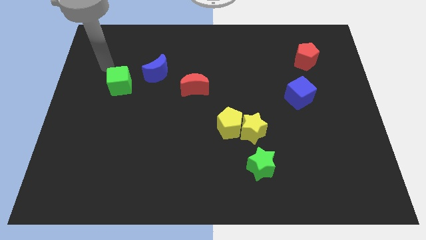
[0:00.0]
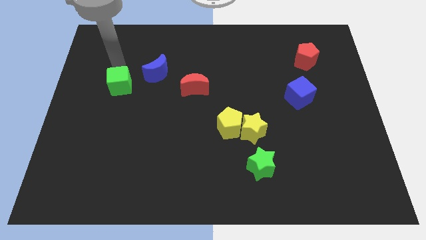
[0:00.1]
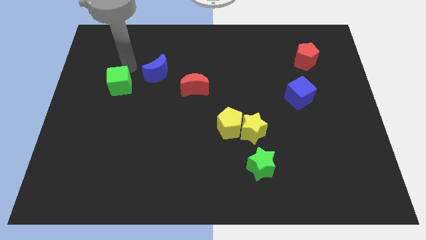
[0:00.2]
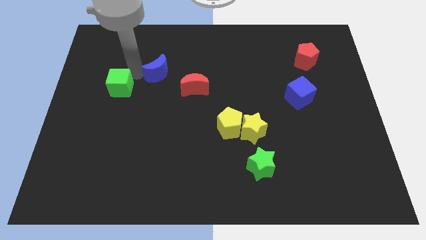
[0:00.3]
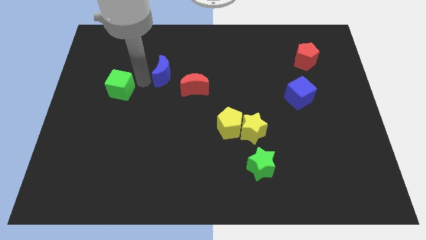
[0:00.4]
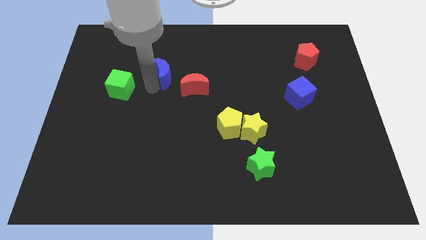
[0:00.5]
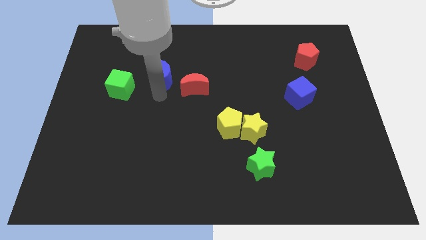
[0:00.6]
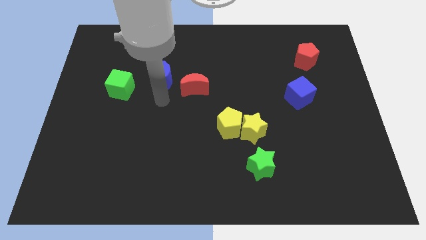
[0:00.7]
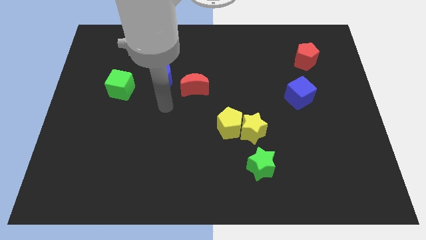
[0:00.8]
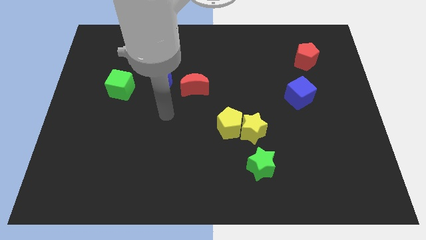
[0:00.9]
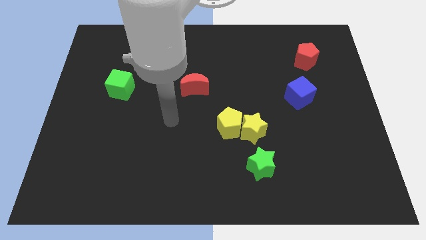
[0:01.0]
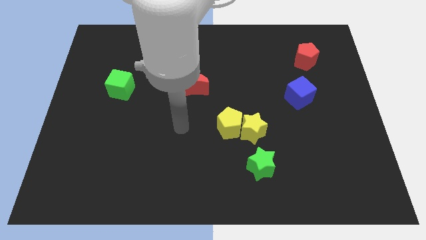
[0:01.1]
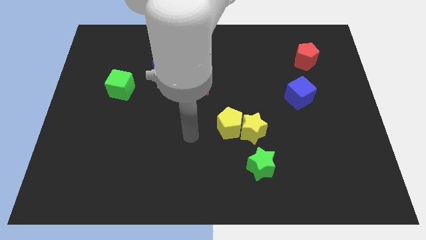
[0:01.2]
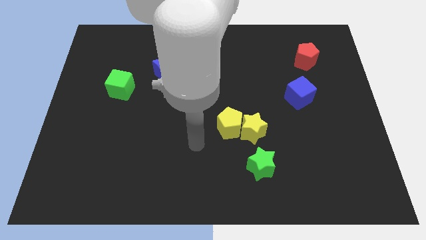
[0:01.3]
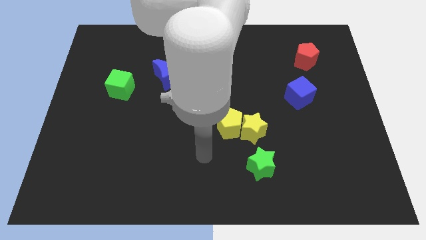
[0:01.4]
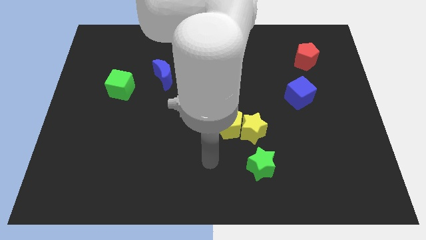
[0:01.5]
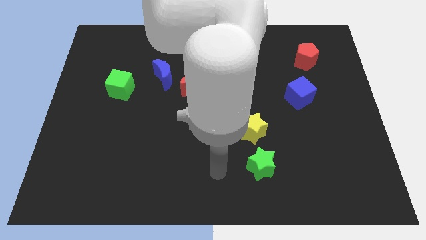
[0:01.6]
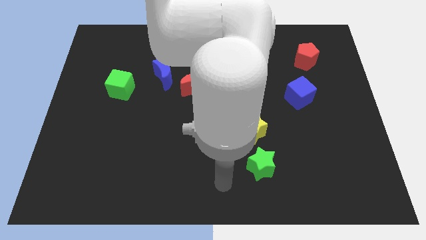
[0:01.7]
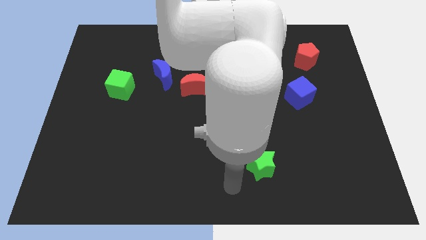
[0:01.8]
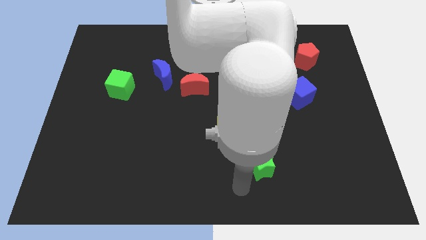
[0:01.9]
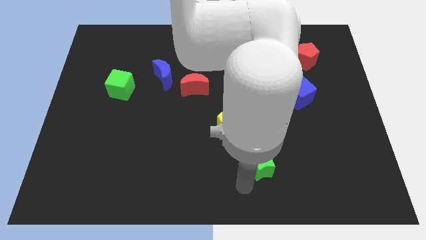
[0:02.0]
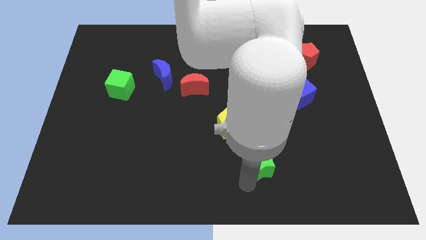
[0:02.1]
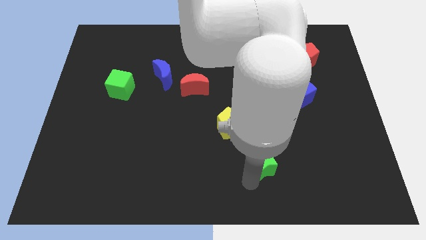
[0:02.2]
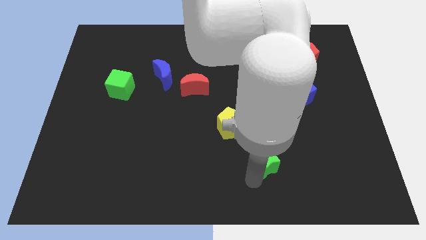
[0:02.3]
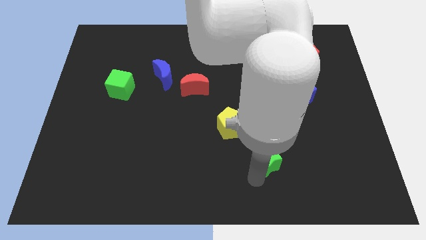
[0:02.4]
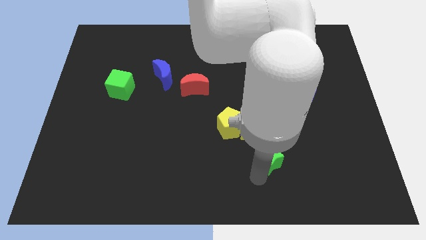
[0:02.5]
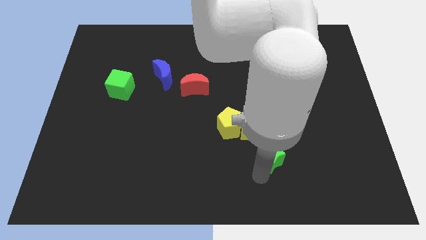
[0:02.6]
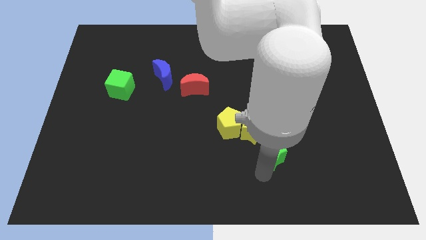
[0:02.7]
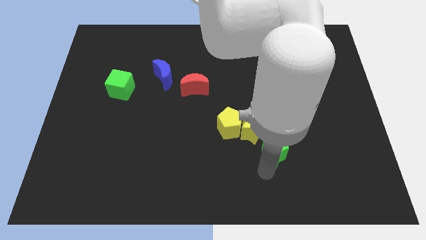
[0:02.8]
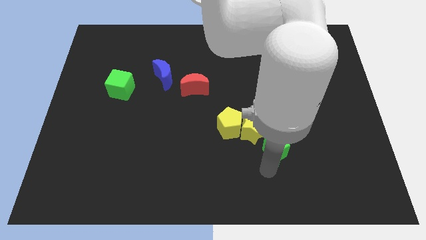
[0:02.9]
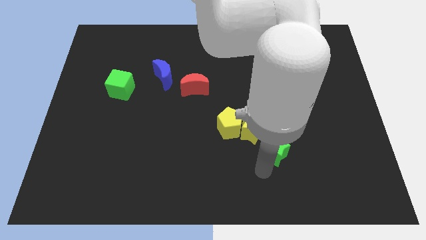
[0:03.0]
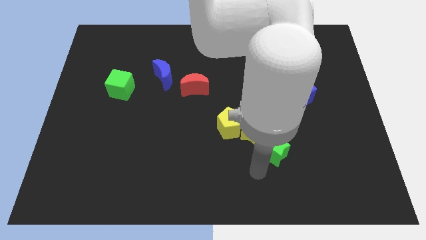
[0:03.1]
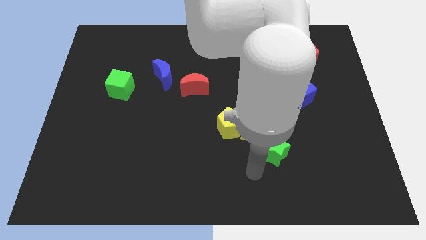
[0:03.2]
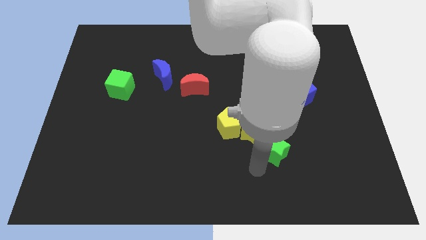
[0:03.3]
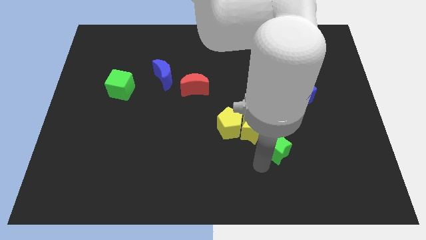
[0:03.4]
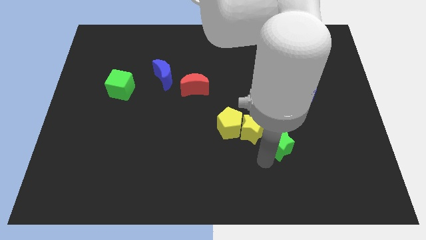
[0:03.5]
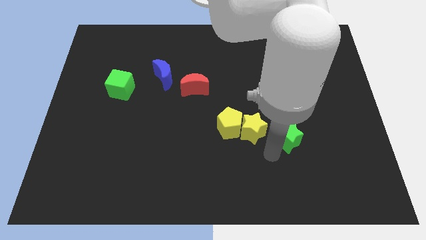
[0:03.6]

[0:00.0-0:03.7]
slide the green star slightly upwards and to the right diagonally

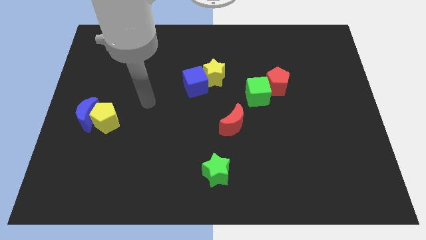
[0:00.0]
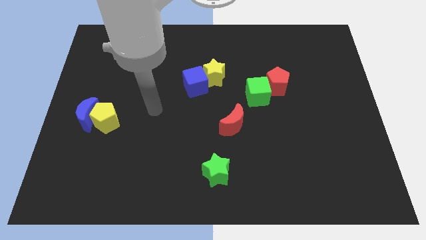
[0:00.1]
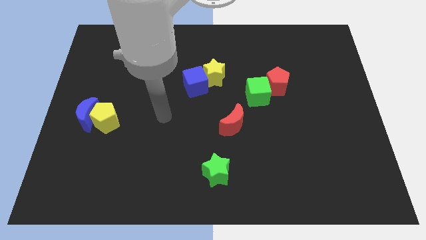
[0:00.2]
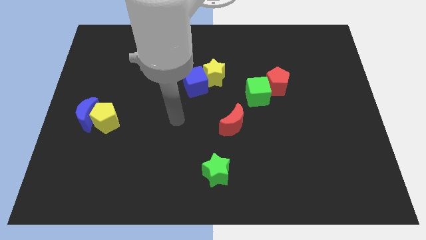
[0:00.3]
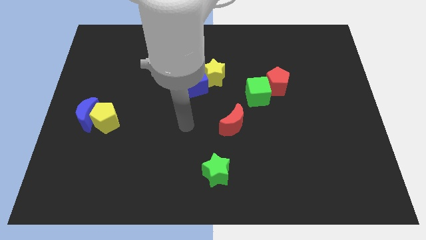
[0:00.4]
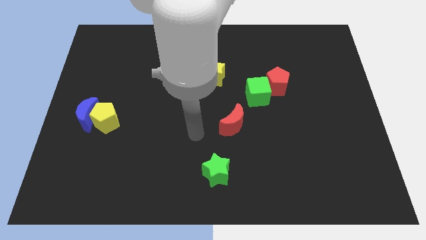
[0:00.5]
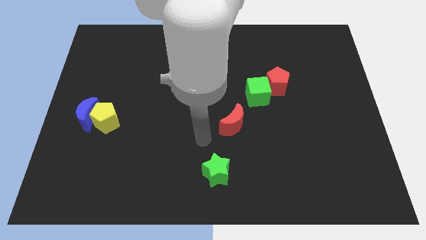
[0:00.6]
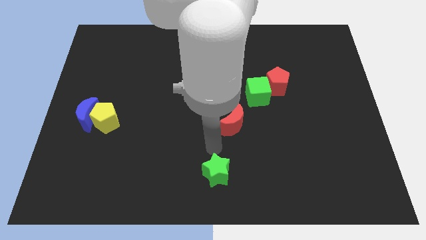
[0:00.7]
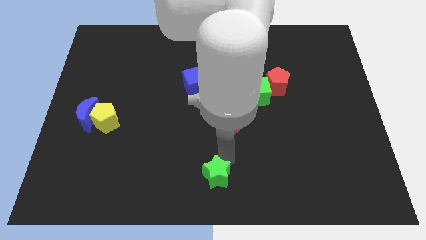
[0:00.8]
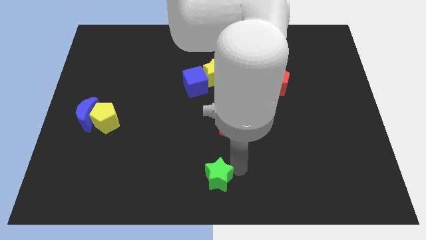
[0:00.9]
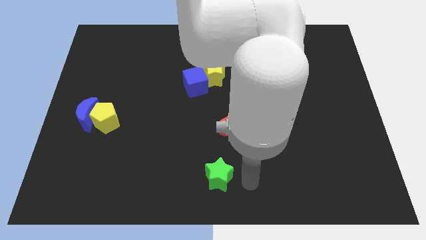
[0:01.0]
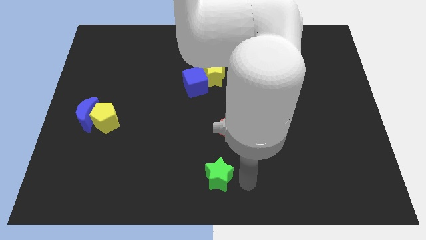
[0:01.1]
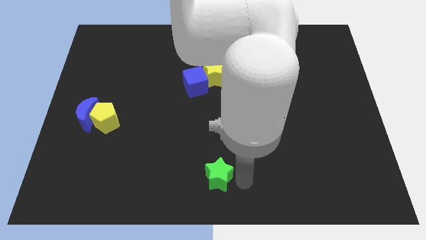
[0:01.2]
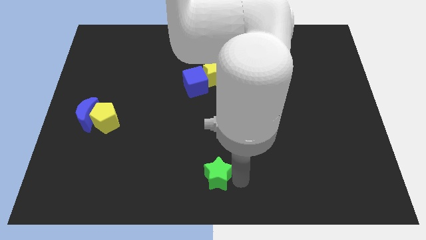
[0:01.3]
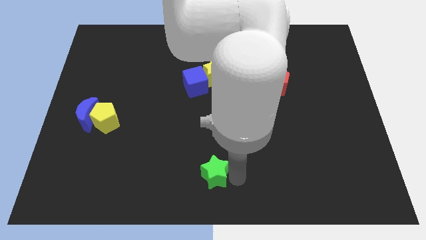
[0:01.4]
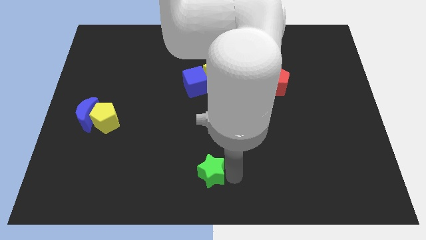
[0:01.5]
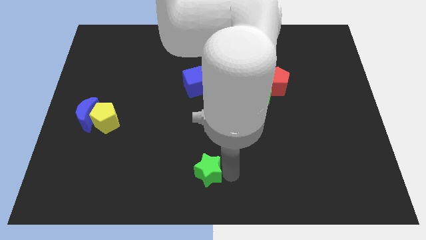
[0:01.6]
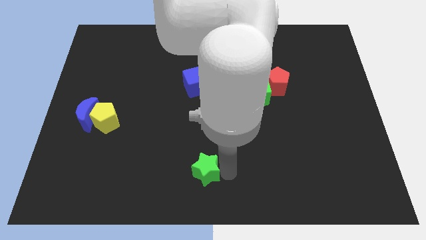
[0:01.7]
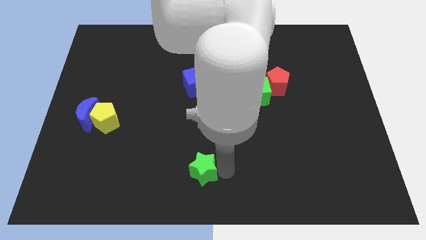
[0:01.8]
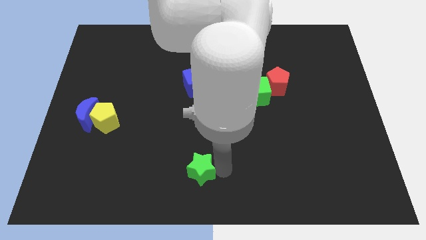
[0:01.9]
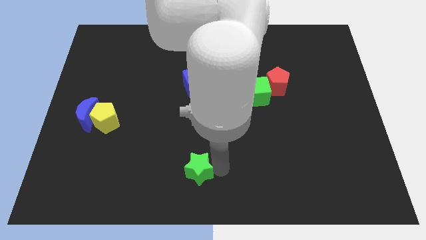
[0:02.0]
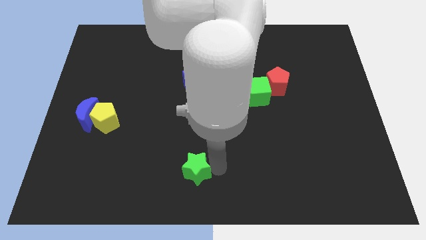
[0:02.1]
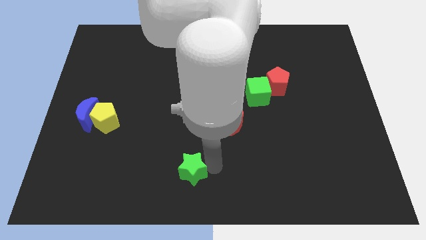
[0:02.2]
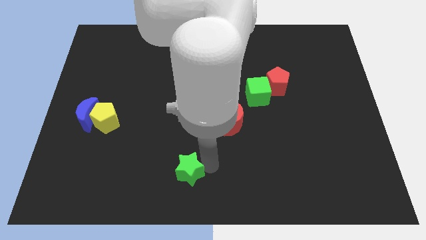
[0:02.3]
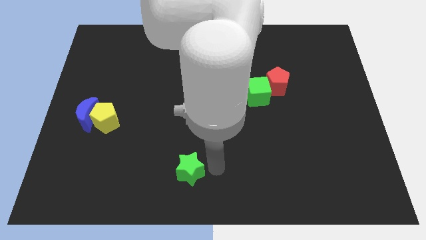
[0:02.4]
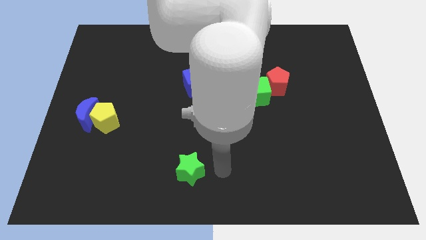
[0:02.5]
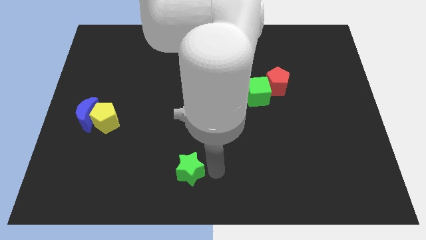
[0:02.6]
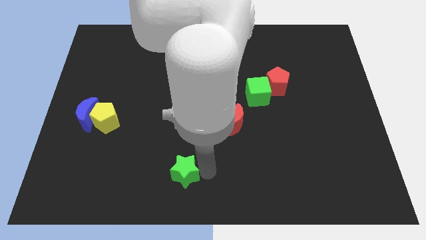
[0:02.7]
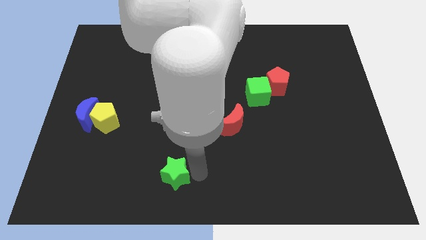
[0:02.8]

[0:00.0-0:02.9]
slightly move the green star left

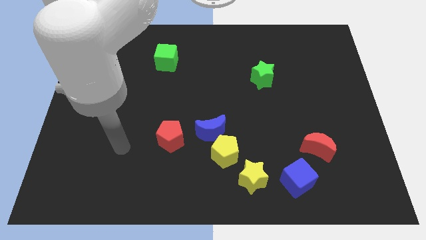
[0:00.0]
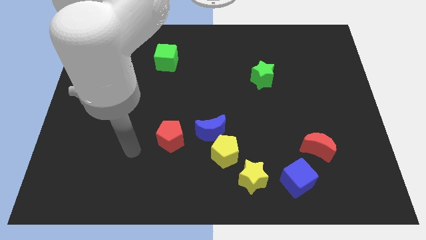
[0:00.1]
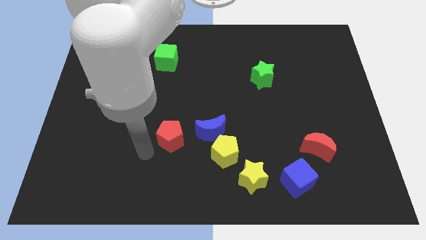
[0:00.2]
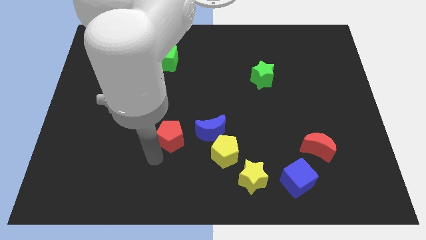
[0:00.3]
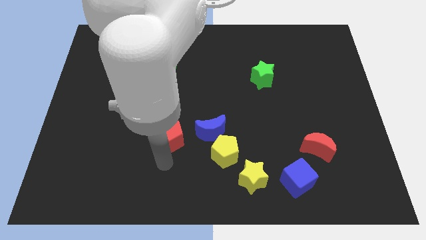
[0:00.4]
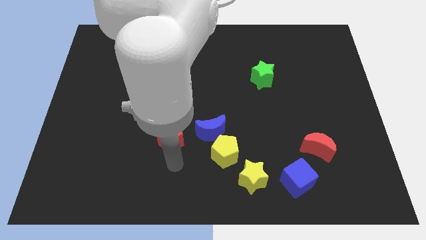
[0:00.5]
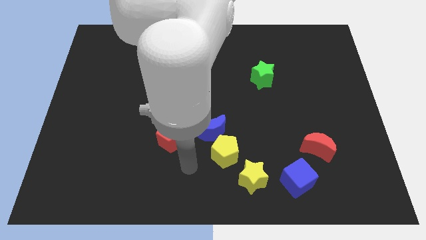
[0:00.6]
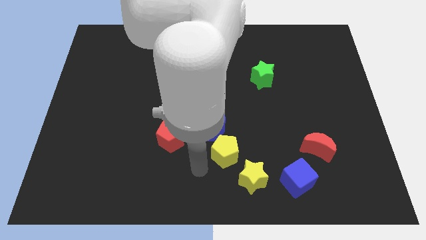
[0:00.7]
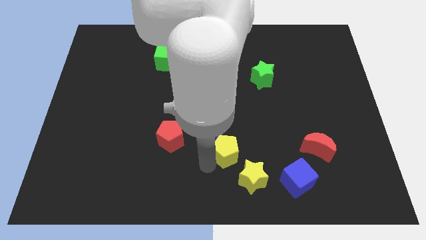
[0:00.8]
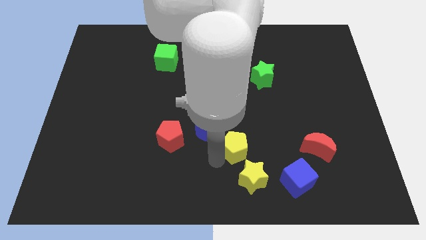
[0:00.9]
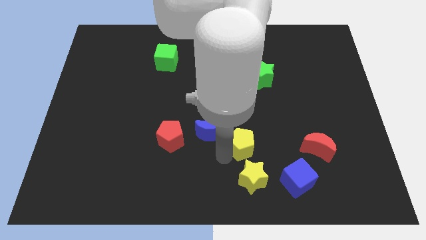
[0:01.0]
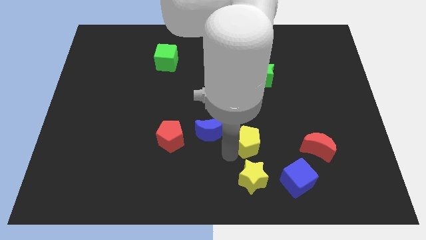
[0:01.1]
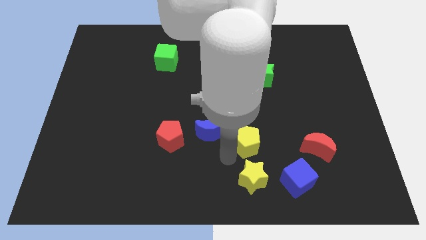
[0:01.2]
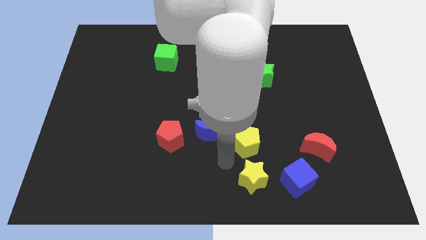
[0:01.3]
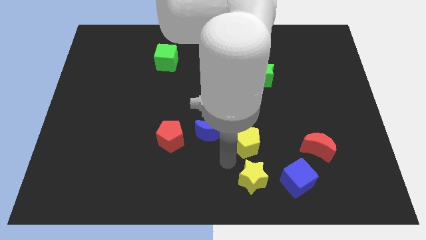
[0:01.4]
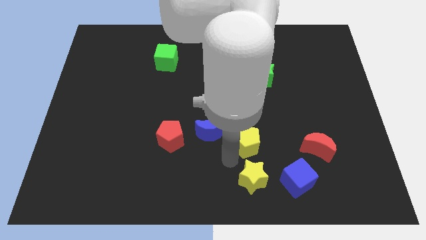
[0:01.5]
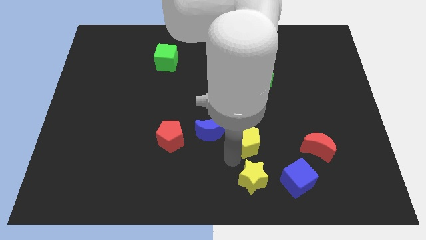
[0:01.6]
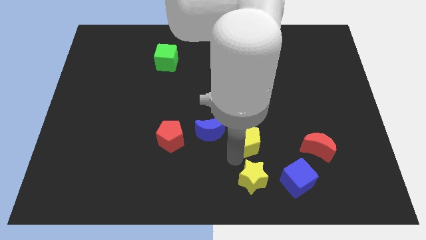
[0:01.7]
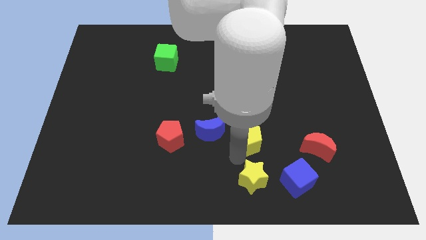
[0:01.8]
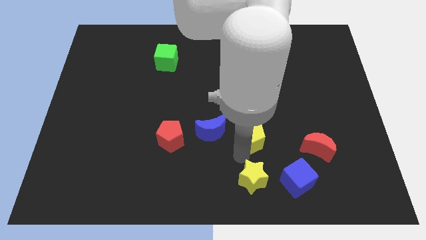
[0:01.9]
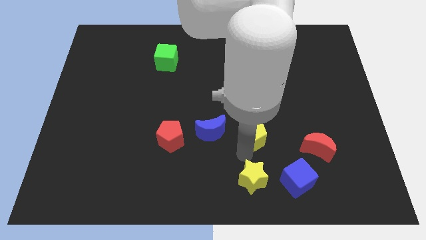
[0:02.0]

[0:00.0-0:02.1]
push the yellow pentagon up and then right a bit
